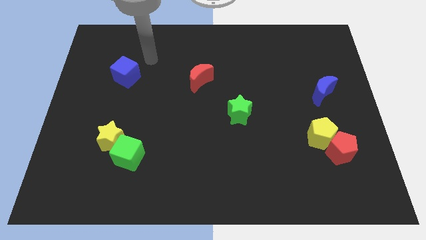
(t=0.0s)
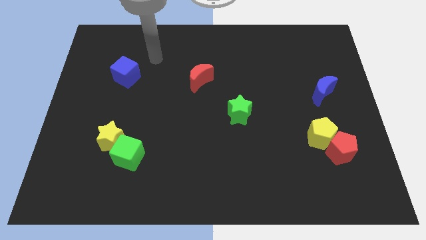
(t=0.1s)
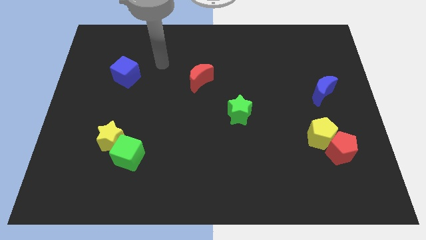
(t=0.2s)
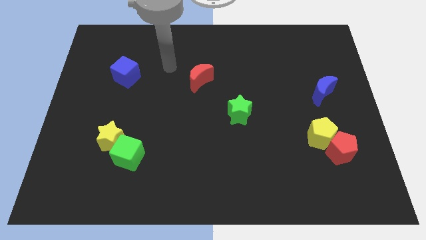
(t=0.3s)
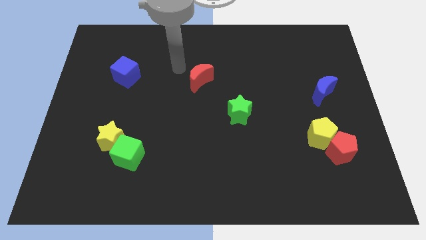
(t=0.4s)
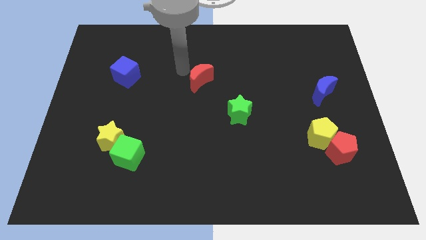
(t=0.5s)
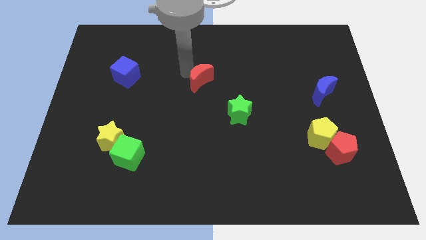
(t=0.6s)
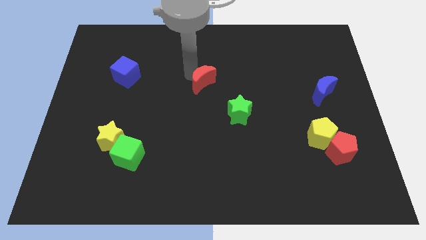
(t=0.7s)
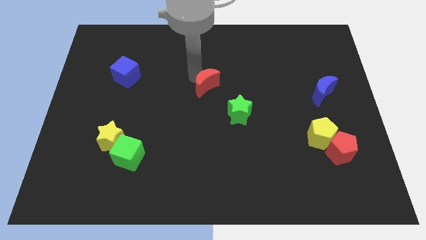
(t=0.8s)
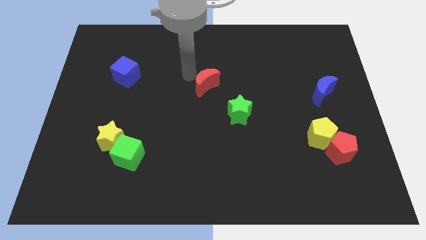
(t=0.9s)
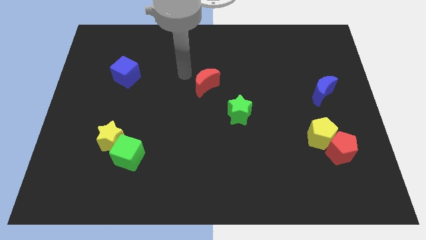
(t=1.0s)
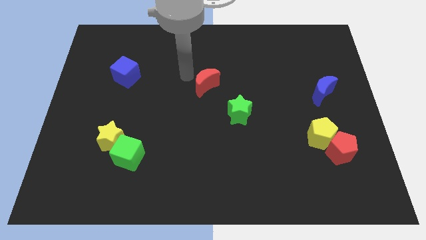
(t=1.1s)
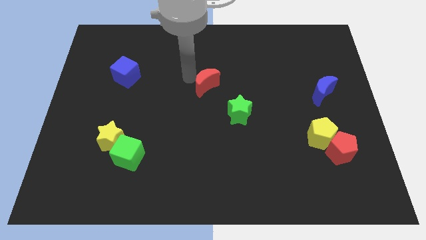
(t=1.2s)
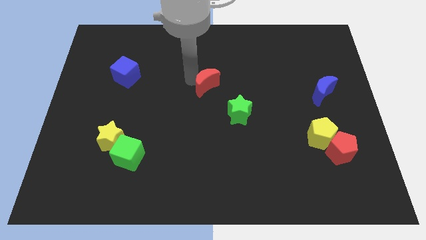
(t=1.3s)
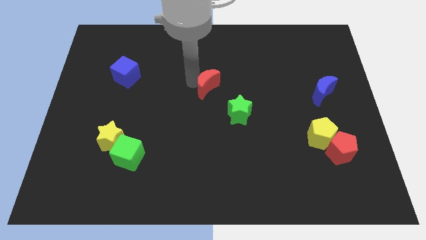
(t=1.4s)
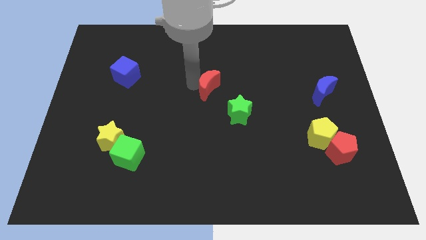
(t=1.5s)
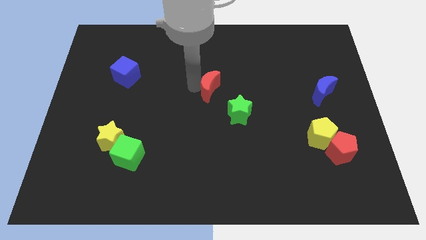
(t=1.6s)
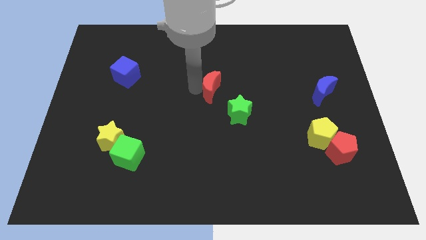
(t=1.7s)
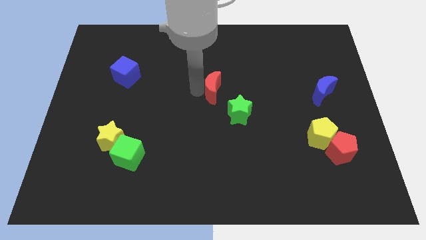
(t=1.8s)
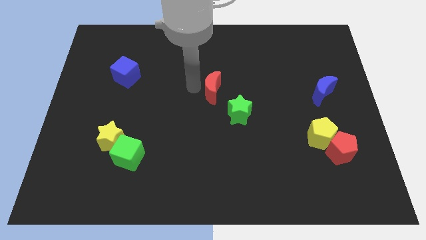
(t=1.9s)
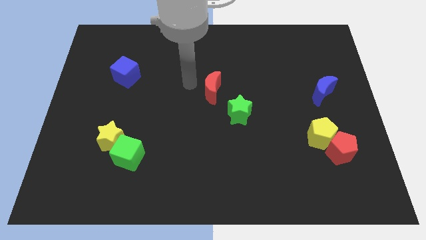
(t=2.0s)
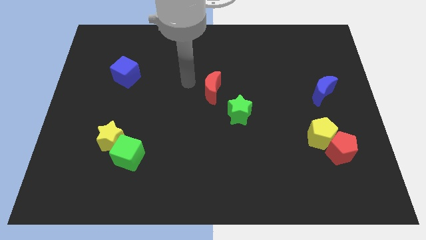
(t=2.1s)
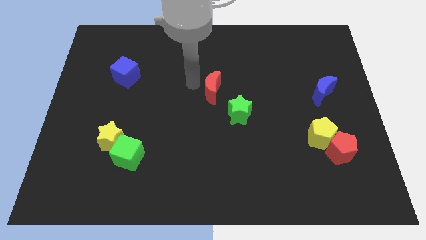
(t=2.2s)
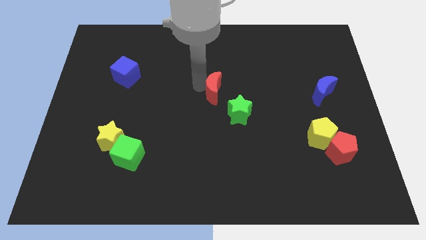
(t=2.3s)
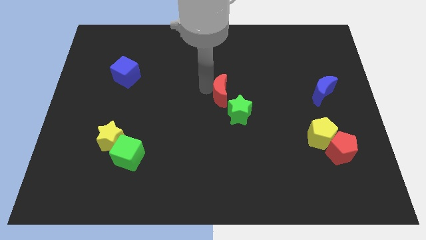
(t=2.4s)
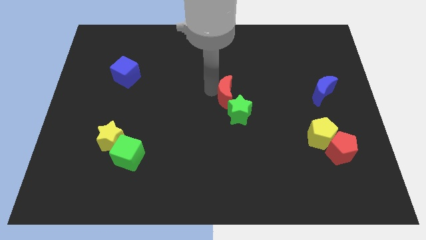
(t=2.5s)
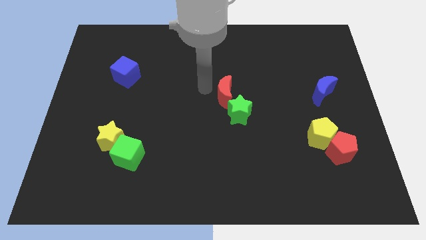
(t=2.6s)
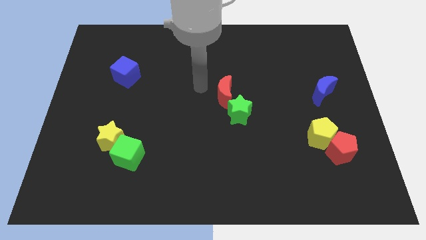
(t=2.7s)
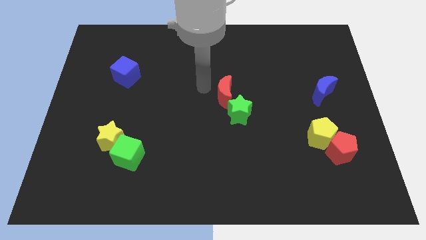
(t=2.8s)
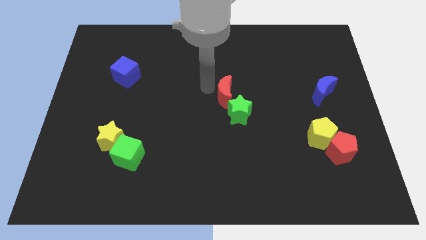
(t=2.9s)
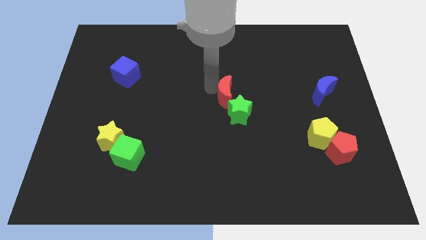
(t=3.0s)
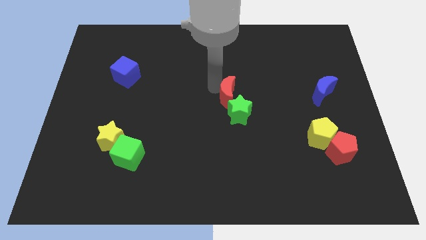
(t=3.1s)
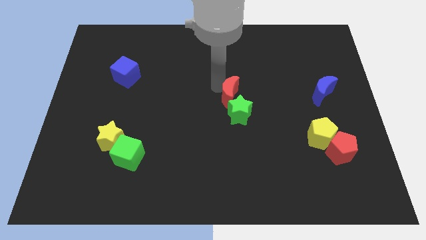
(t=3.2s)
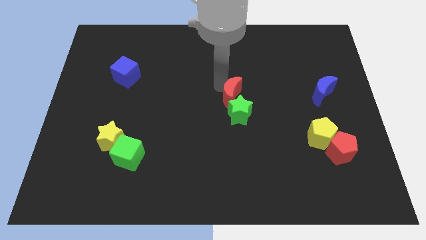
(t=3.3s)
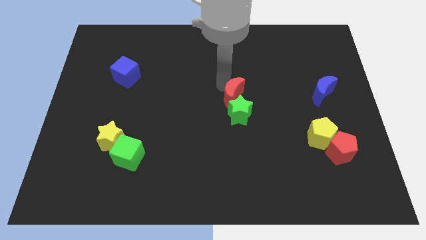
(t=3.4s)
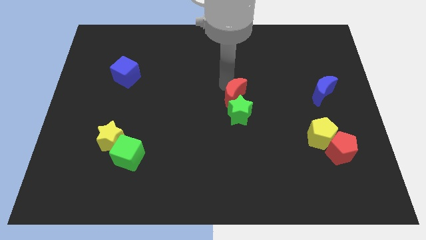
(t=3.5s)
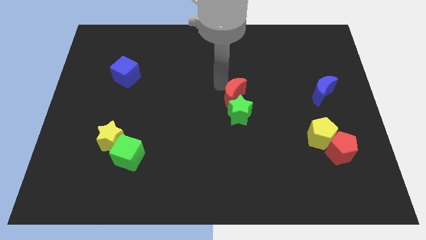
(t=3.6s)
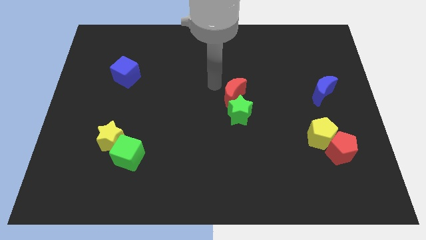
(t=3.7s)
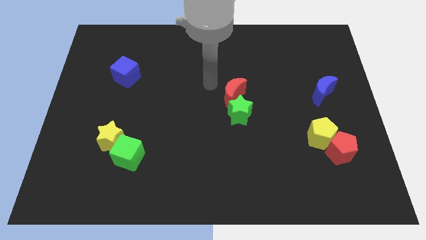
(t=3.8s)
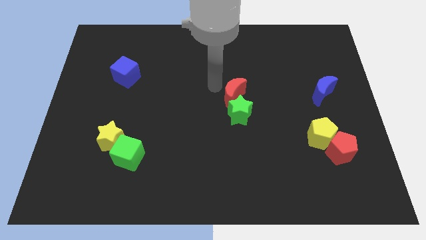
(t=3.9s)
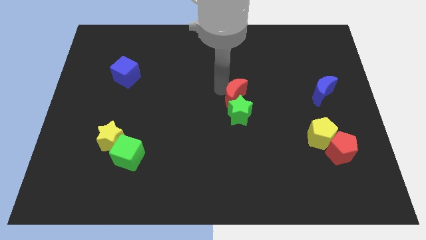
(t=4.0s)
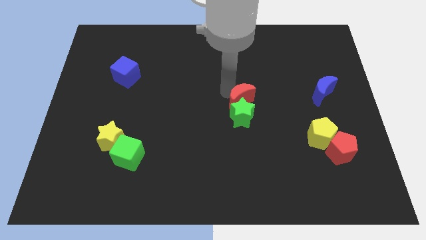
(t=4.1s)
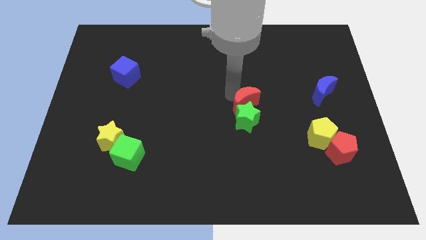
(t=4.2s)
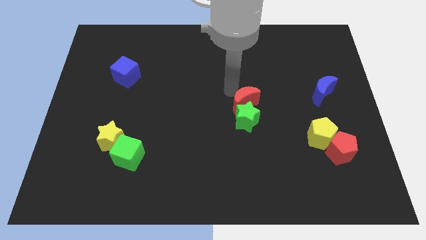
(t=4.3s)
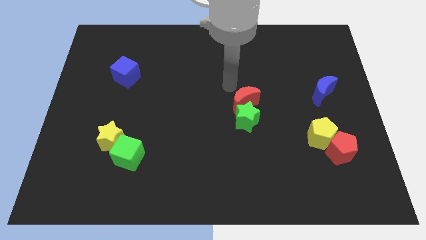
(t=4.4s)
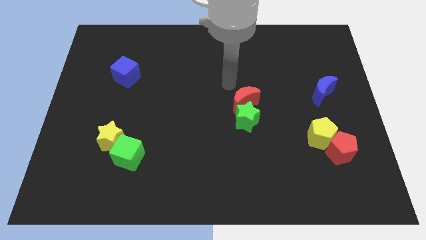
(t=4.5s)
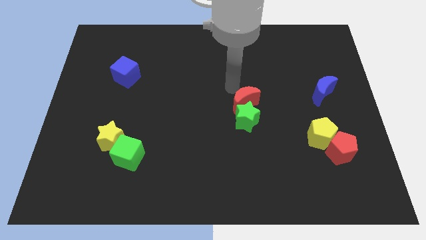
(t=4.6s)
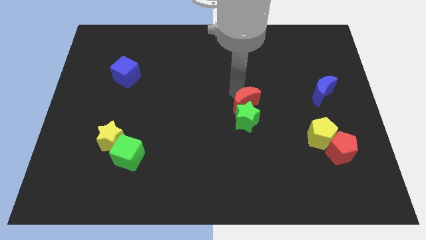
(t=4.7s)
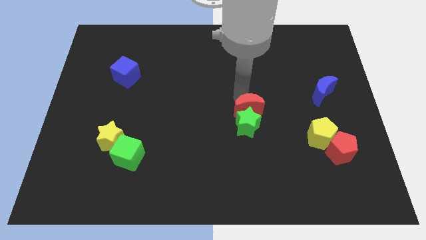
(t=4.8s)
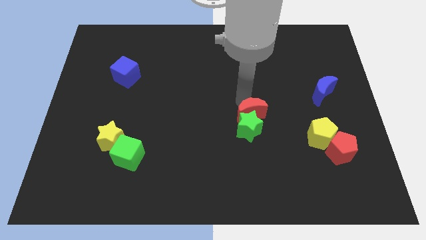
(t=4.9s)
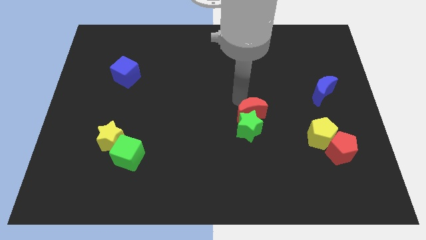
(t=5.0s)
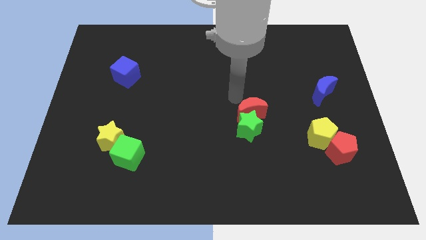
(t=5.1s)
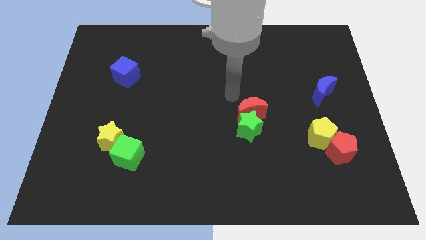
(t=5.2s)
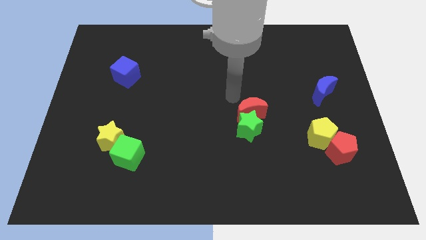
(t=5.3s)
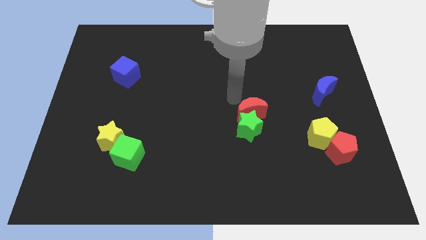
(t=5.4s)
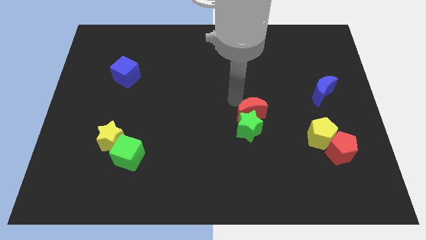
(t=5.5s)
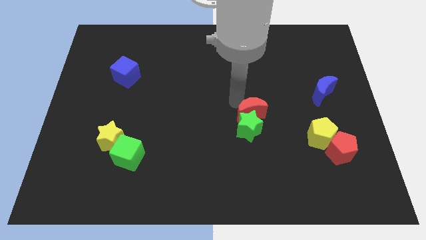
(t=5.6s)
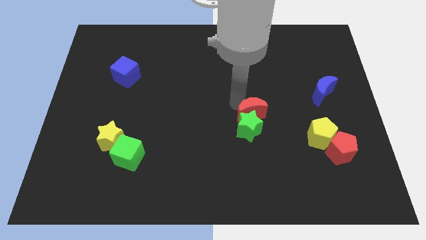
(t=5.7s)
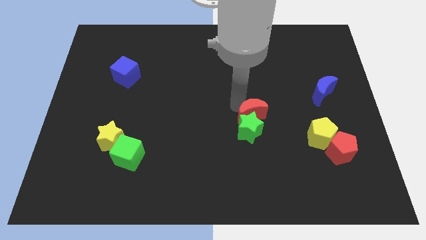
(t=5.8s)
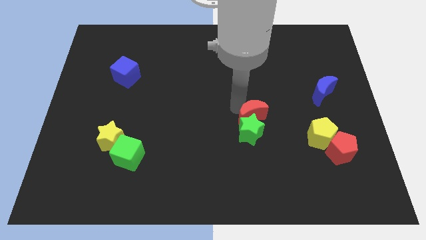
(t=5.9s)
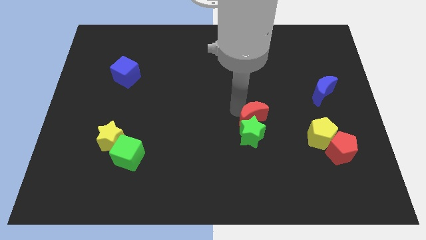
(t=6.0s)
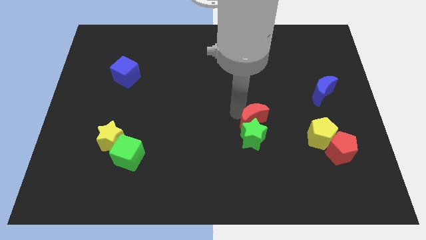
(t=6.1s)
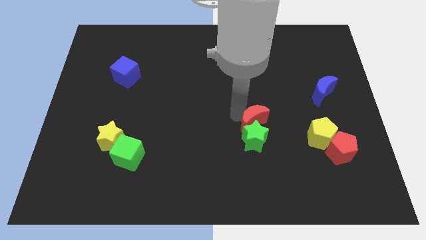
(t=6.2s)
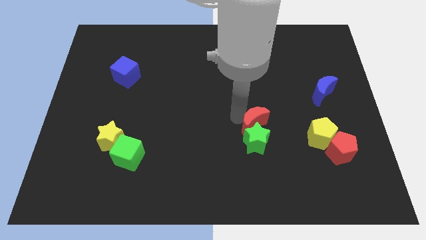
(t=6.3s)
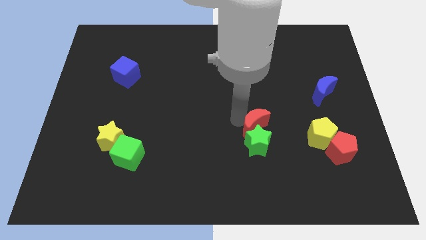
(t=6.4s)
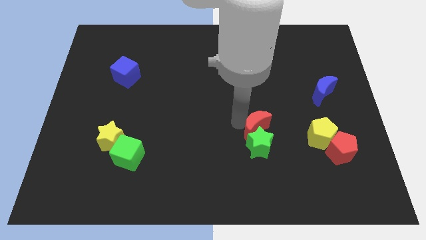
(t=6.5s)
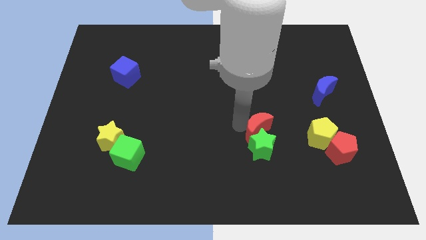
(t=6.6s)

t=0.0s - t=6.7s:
move the red moon down and to the right

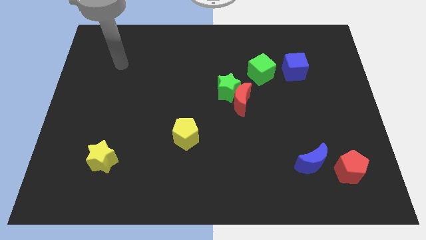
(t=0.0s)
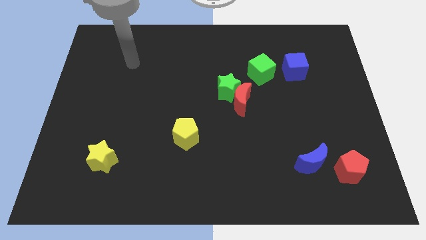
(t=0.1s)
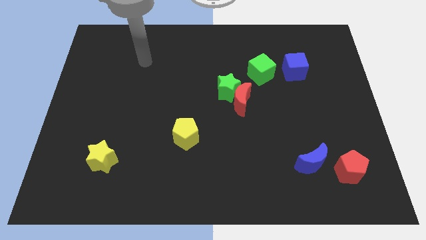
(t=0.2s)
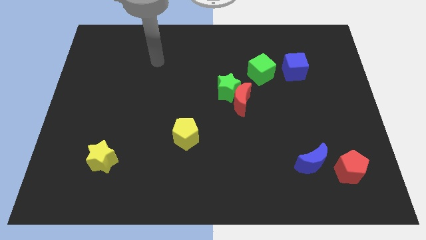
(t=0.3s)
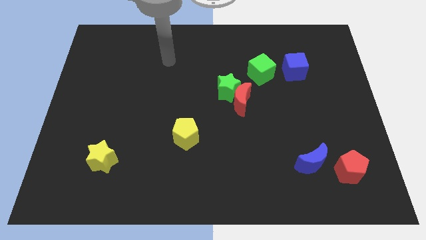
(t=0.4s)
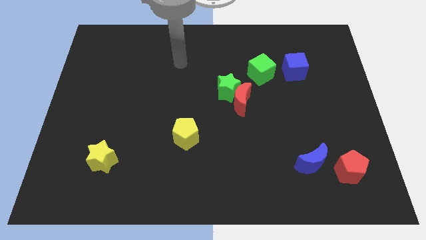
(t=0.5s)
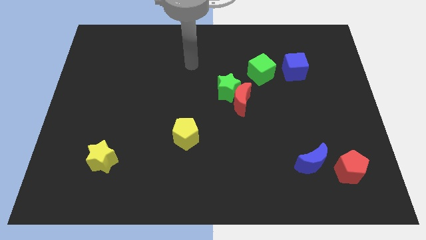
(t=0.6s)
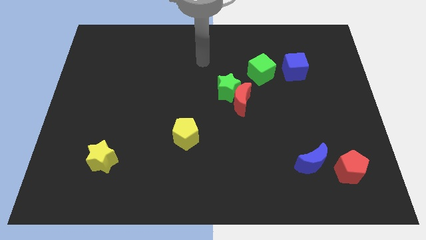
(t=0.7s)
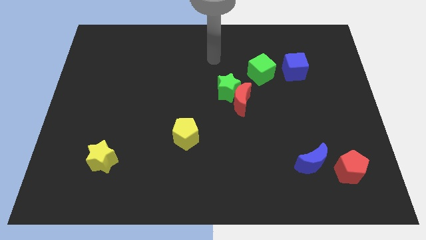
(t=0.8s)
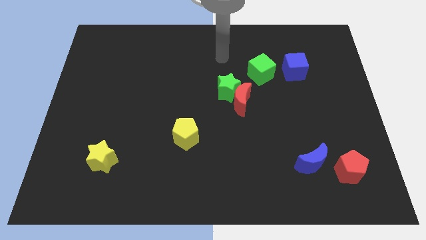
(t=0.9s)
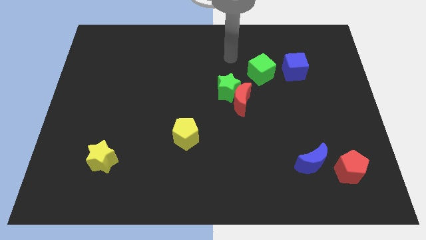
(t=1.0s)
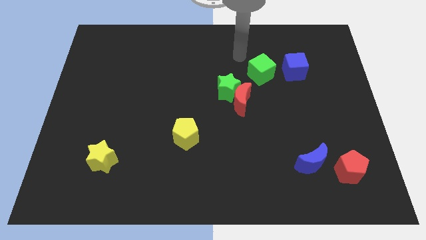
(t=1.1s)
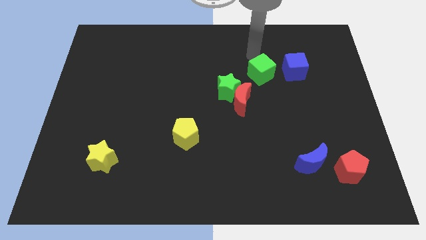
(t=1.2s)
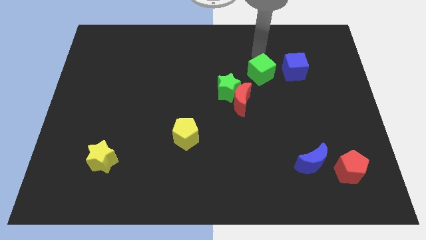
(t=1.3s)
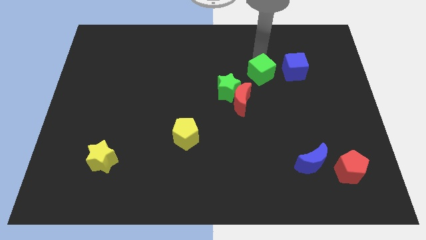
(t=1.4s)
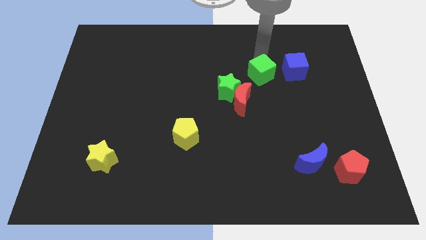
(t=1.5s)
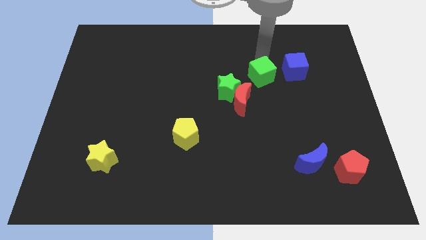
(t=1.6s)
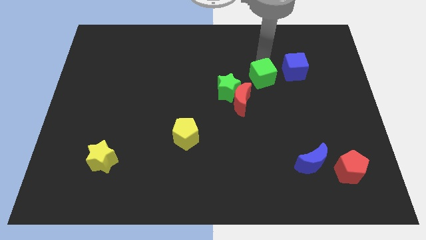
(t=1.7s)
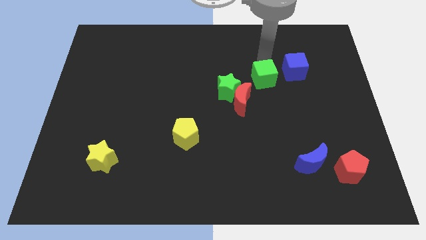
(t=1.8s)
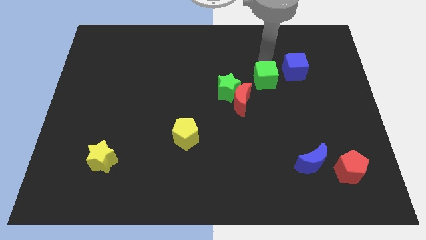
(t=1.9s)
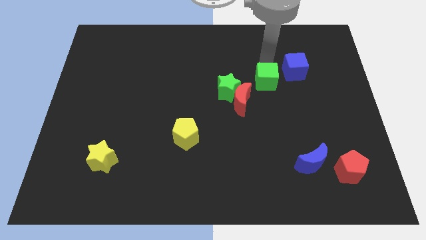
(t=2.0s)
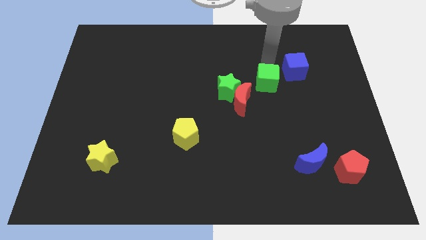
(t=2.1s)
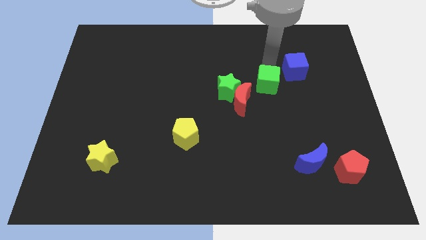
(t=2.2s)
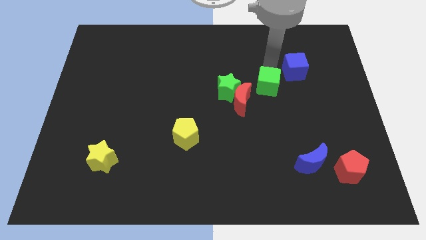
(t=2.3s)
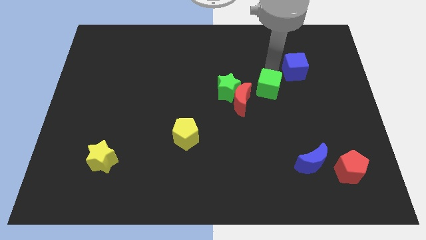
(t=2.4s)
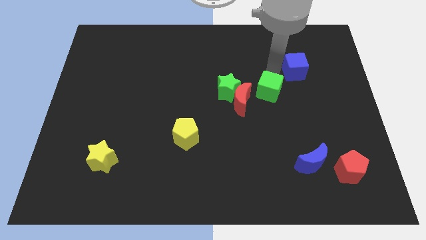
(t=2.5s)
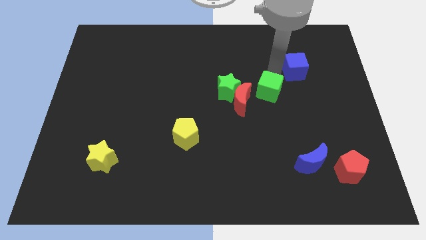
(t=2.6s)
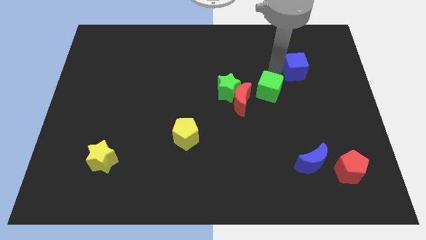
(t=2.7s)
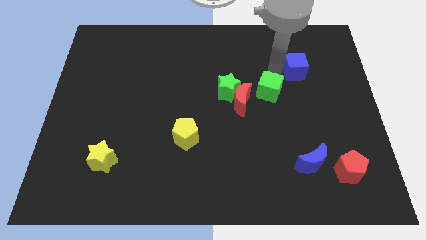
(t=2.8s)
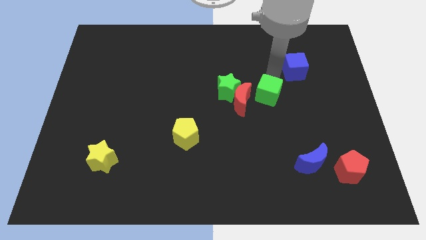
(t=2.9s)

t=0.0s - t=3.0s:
move the green cube slightly downwards
